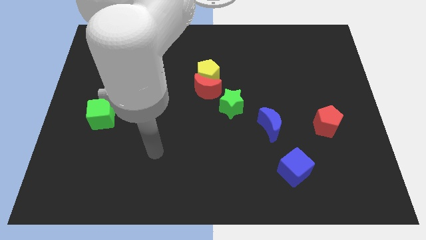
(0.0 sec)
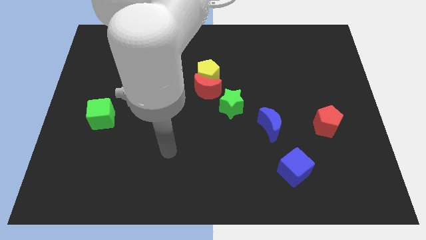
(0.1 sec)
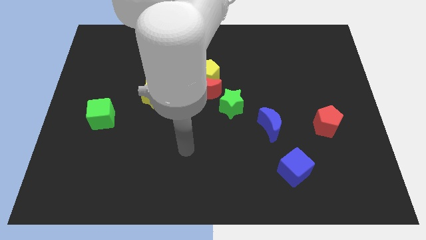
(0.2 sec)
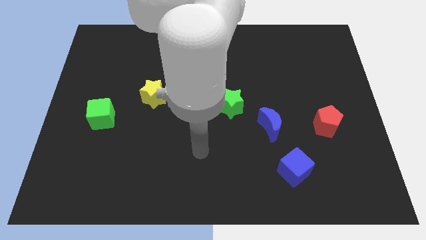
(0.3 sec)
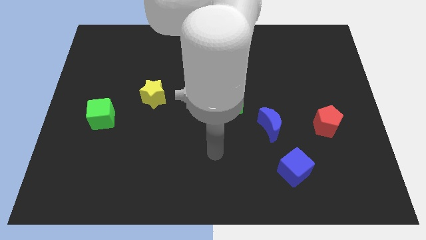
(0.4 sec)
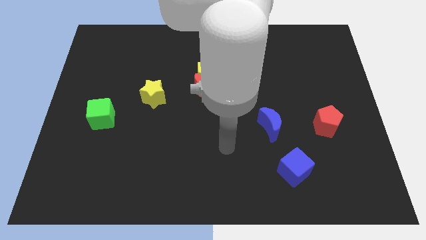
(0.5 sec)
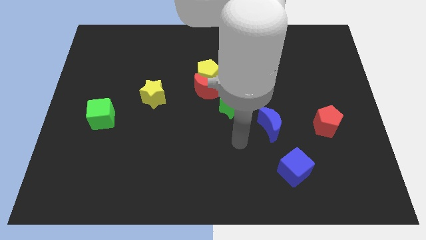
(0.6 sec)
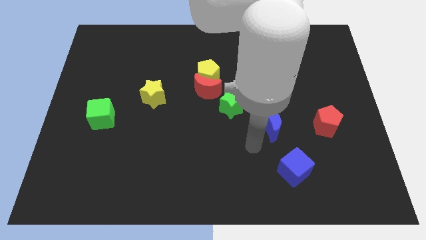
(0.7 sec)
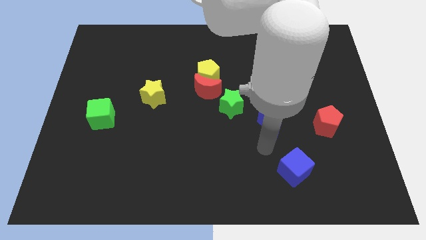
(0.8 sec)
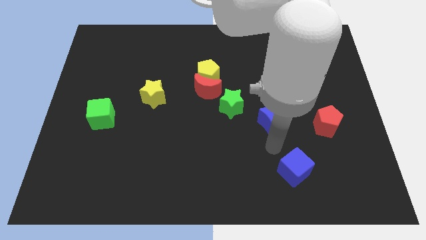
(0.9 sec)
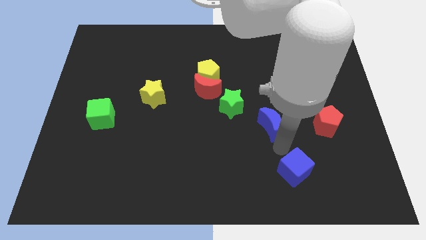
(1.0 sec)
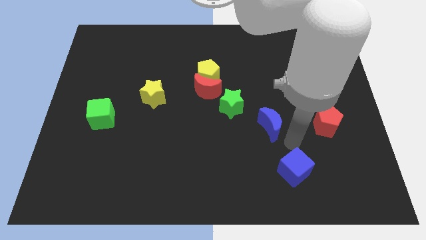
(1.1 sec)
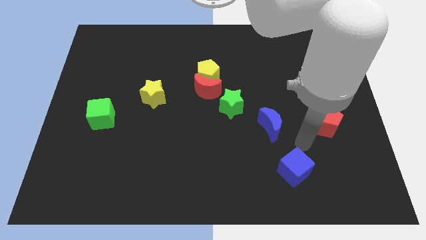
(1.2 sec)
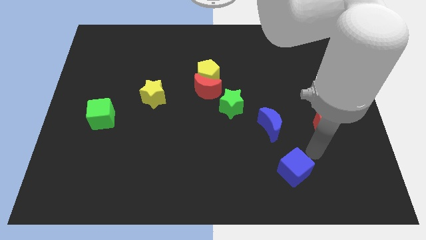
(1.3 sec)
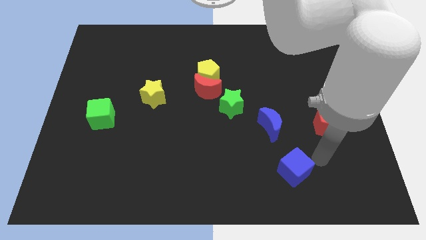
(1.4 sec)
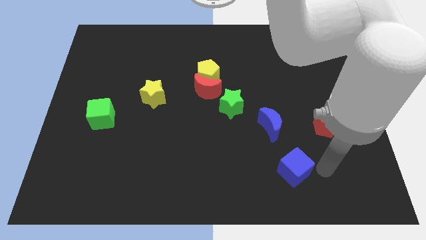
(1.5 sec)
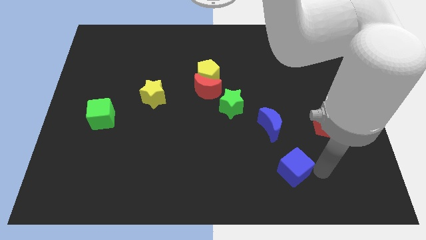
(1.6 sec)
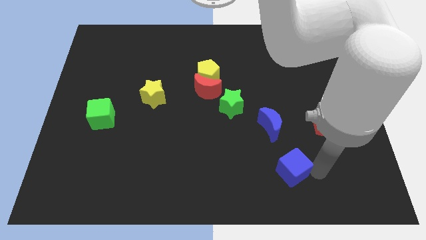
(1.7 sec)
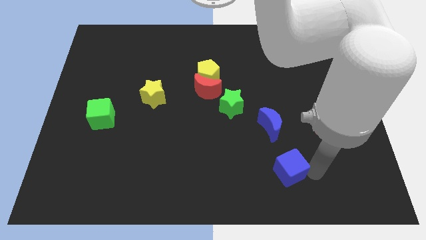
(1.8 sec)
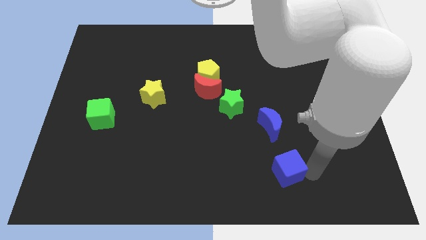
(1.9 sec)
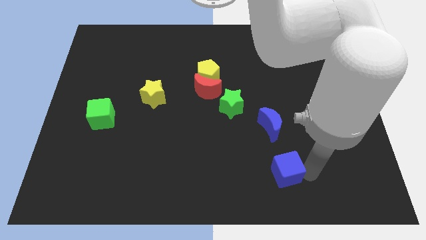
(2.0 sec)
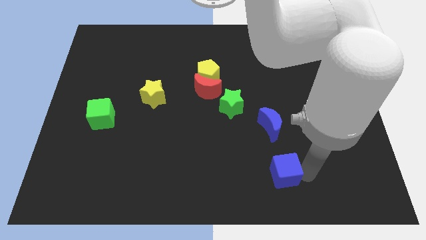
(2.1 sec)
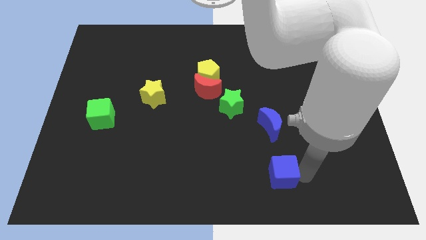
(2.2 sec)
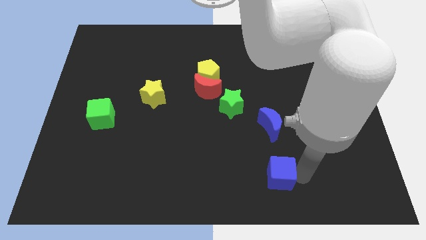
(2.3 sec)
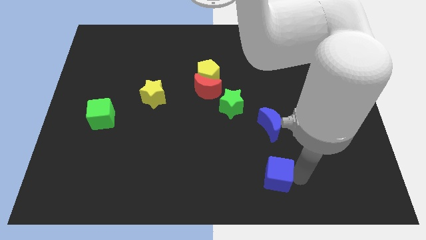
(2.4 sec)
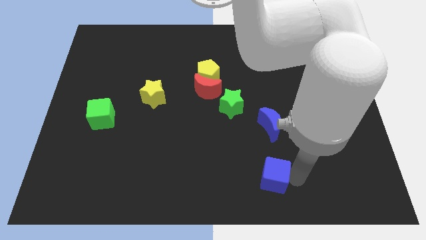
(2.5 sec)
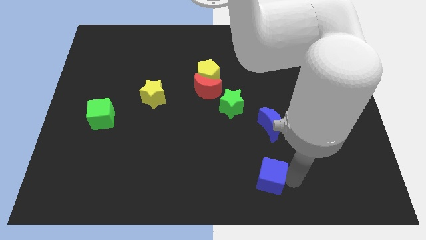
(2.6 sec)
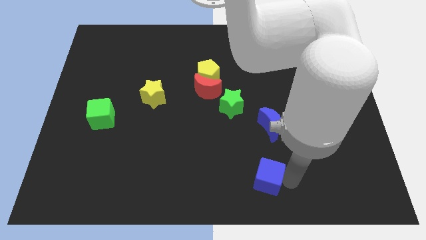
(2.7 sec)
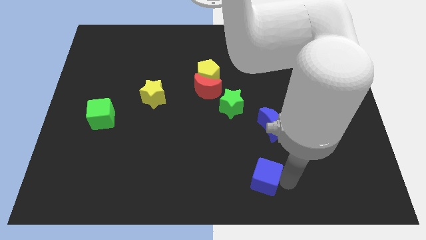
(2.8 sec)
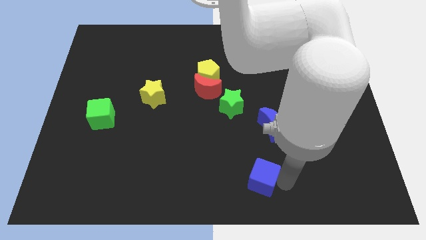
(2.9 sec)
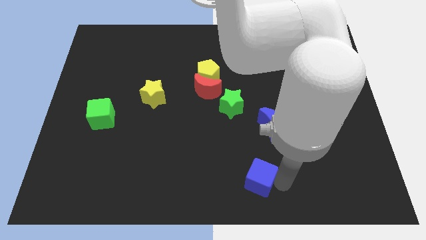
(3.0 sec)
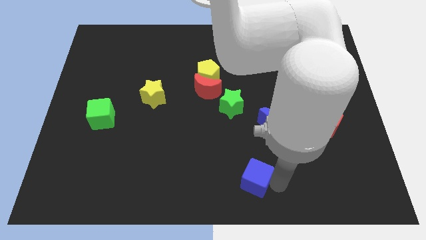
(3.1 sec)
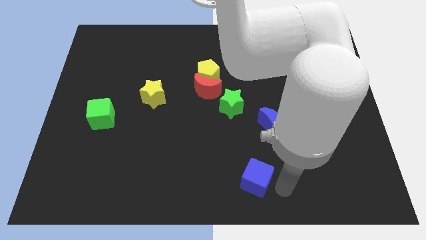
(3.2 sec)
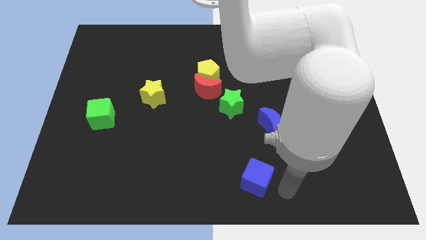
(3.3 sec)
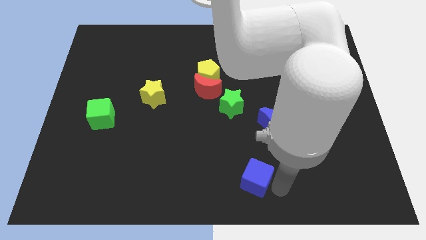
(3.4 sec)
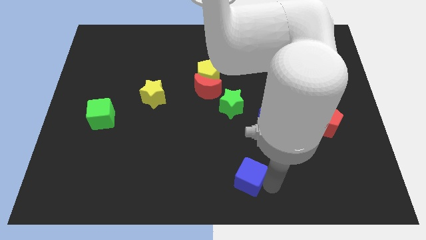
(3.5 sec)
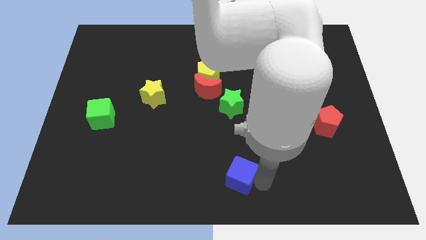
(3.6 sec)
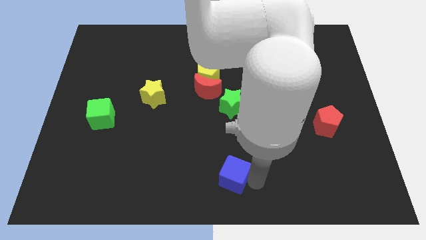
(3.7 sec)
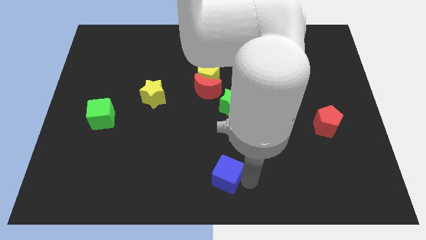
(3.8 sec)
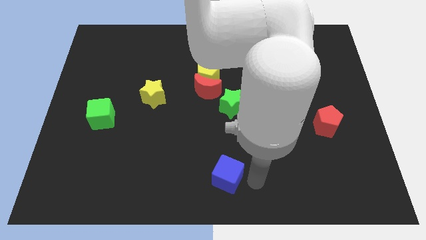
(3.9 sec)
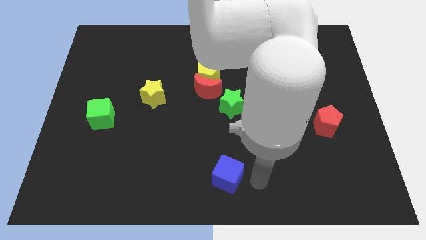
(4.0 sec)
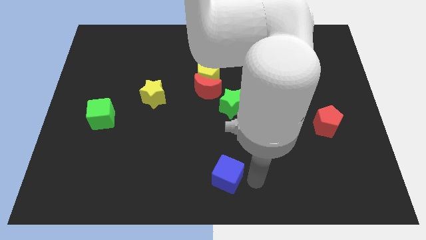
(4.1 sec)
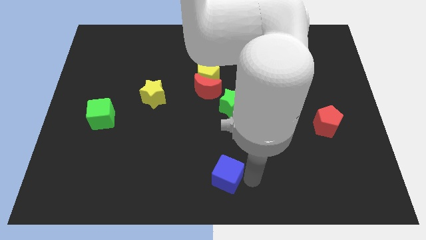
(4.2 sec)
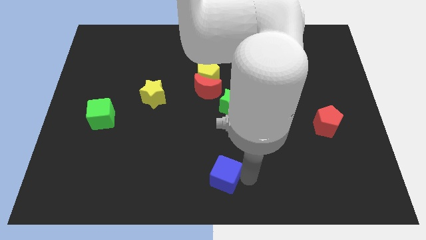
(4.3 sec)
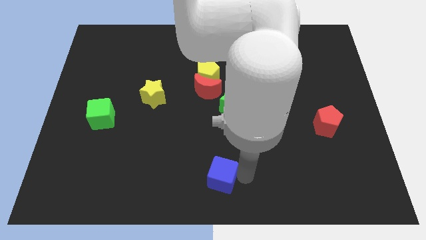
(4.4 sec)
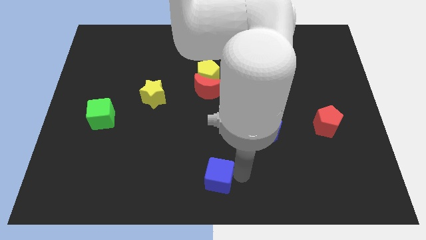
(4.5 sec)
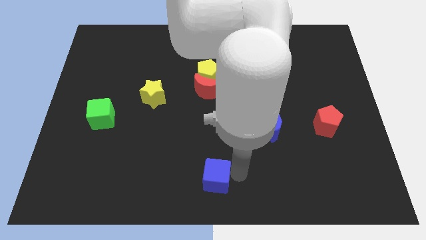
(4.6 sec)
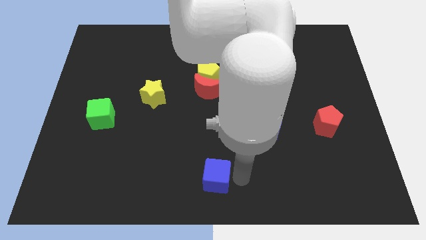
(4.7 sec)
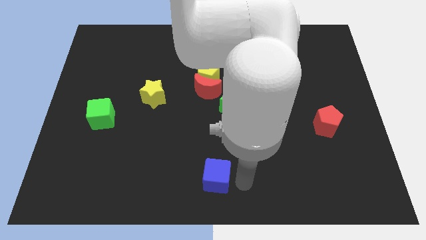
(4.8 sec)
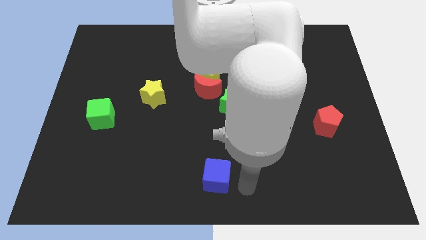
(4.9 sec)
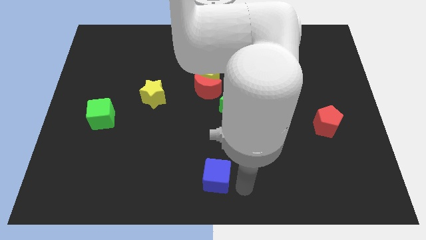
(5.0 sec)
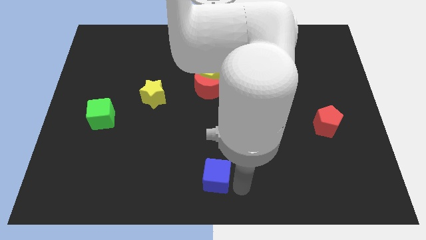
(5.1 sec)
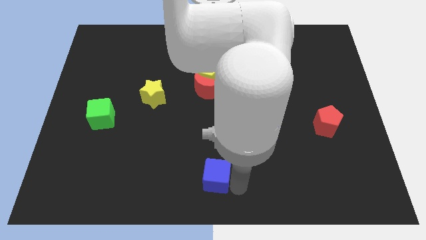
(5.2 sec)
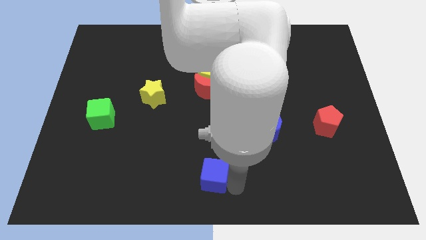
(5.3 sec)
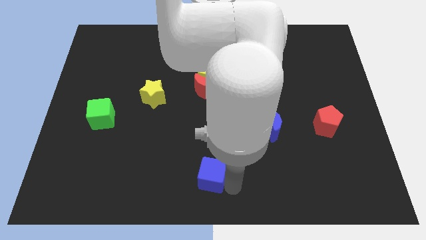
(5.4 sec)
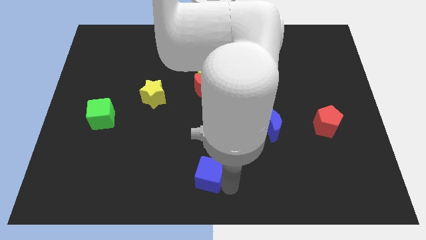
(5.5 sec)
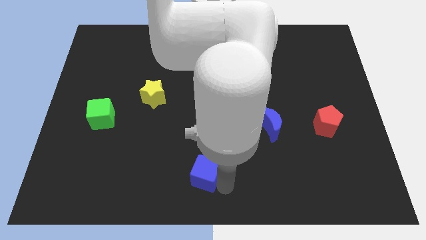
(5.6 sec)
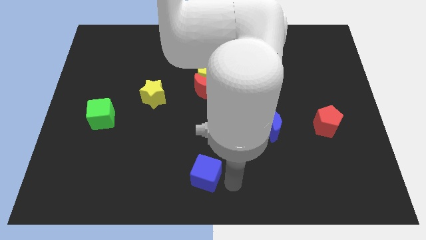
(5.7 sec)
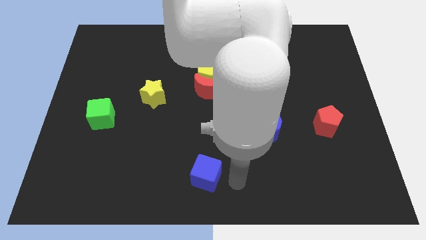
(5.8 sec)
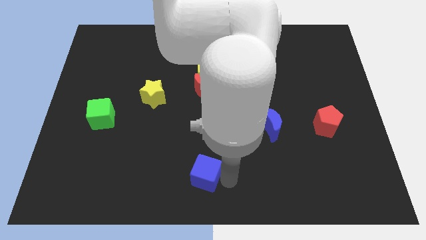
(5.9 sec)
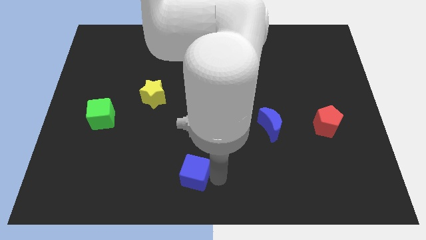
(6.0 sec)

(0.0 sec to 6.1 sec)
slide the blue cube left

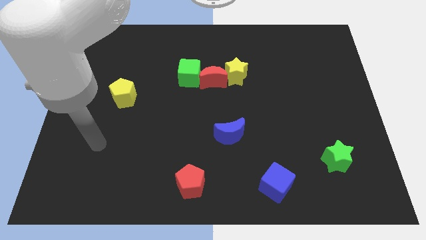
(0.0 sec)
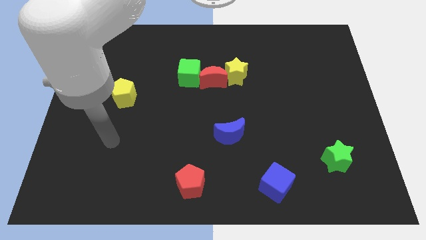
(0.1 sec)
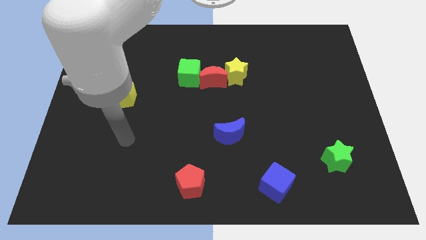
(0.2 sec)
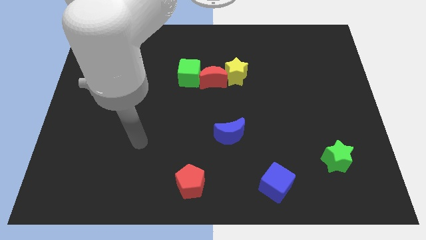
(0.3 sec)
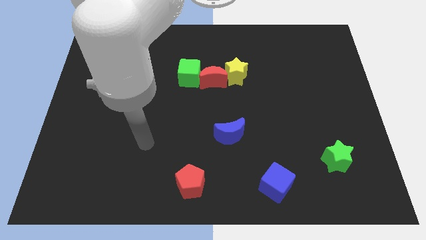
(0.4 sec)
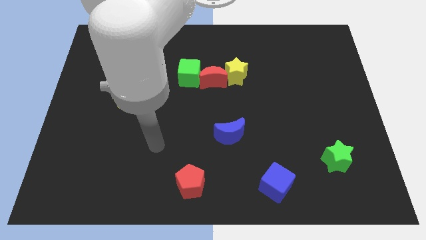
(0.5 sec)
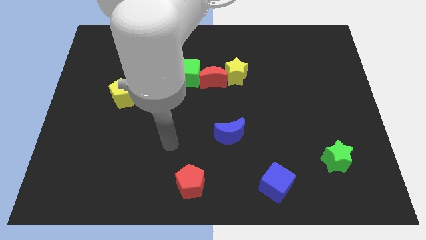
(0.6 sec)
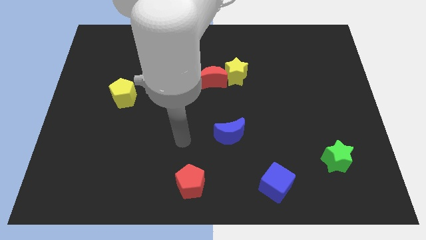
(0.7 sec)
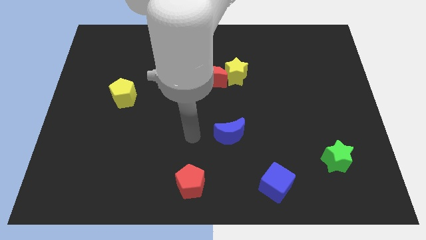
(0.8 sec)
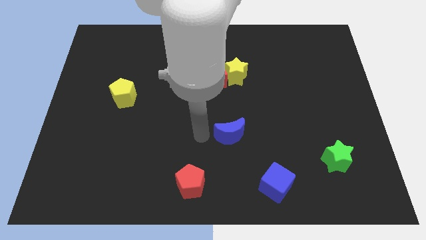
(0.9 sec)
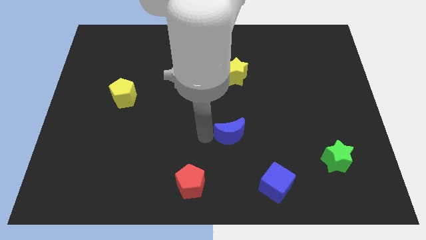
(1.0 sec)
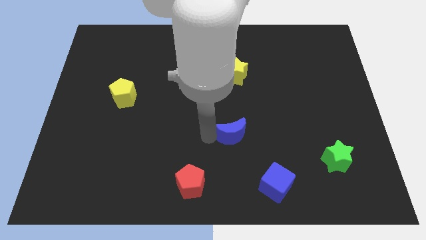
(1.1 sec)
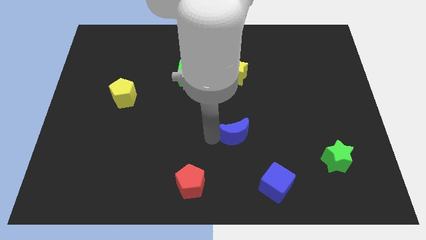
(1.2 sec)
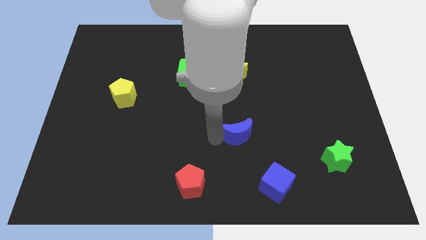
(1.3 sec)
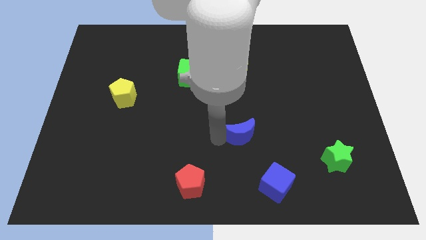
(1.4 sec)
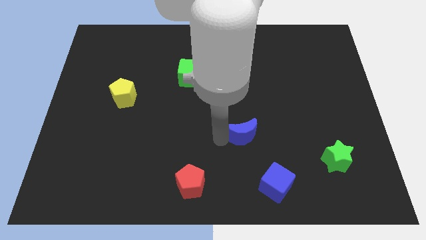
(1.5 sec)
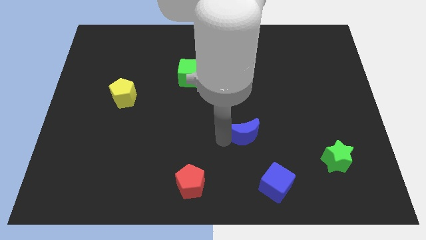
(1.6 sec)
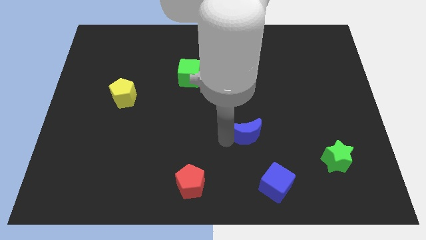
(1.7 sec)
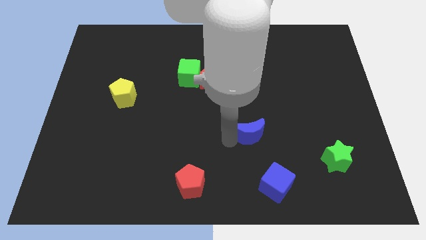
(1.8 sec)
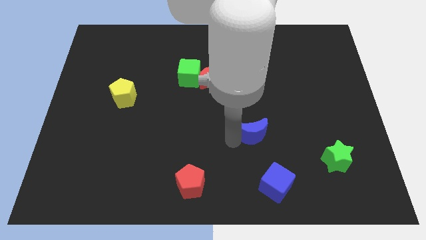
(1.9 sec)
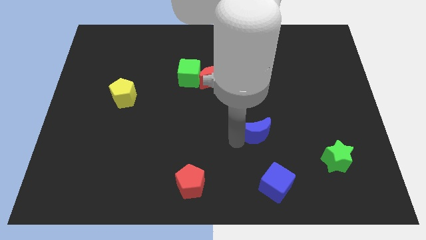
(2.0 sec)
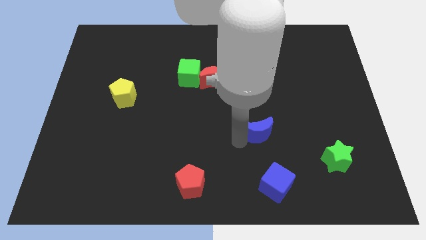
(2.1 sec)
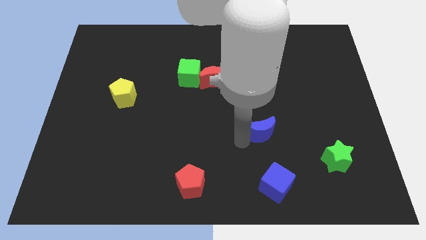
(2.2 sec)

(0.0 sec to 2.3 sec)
push the blue moon a little right
